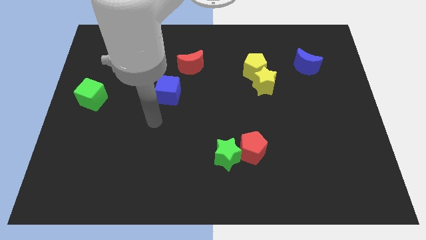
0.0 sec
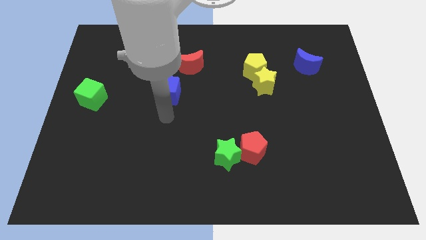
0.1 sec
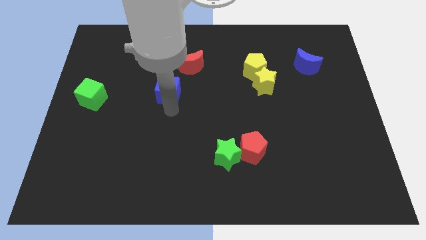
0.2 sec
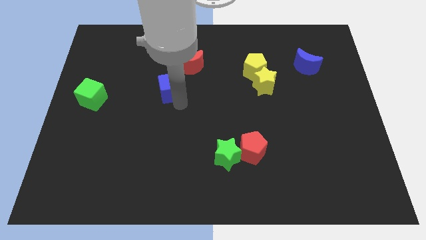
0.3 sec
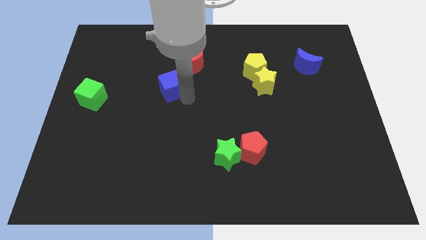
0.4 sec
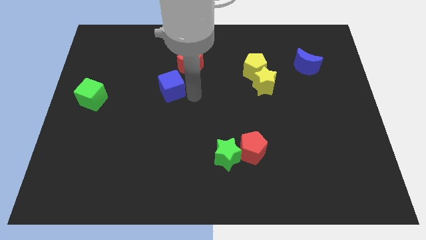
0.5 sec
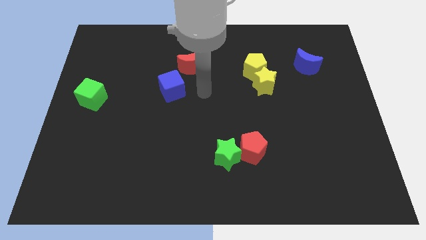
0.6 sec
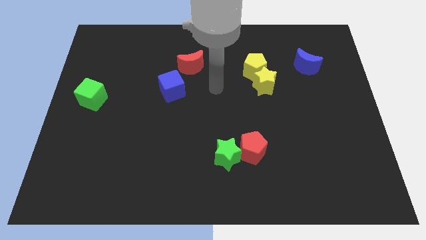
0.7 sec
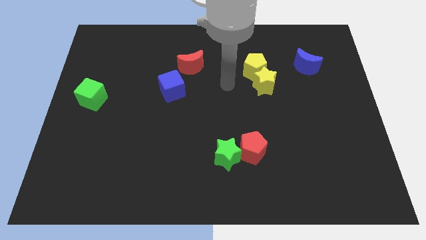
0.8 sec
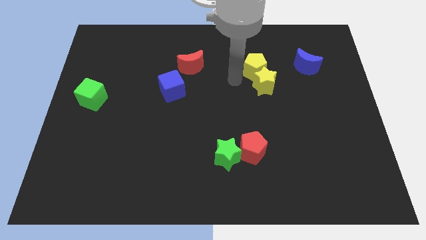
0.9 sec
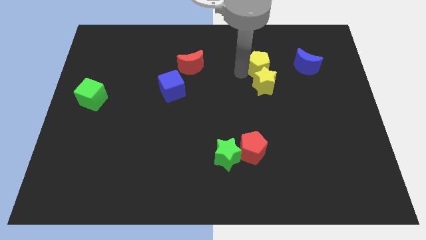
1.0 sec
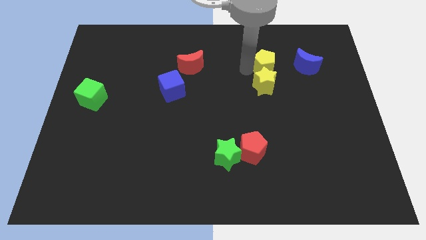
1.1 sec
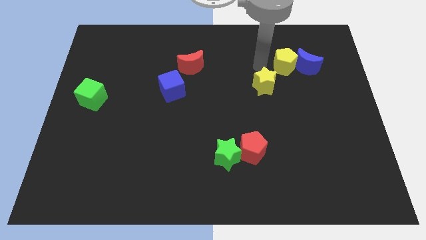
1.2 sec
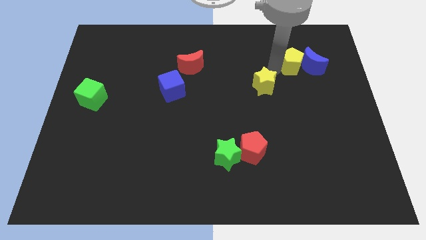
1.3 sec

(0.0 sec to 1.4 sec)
pull the yellow star apart from the yellow pentagon

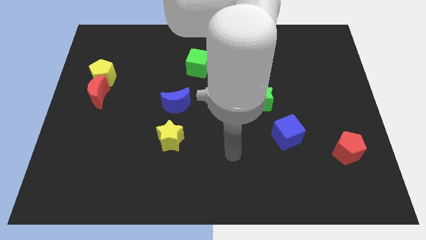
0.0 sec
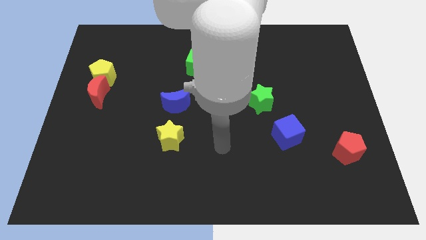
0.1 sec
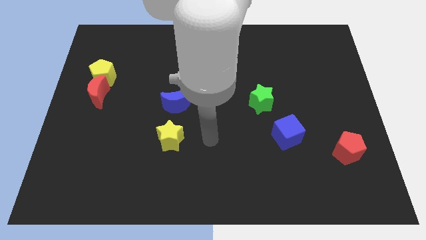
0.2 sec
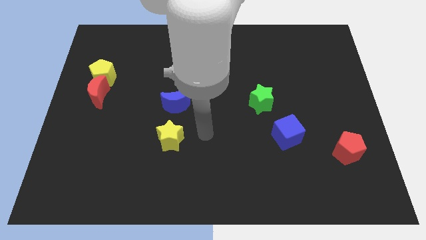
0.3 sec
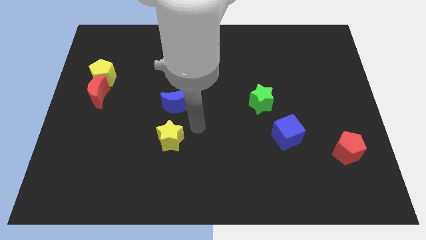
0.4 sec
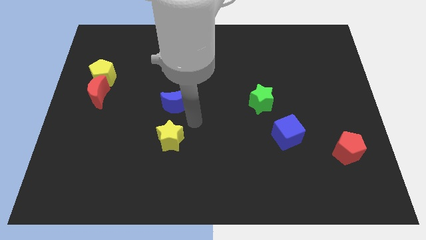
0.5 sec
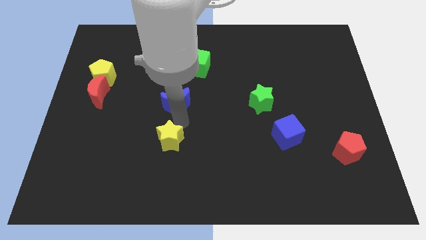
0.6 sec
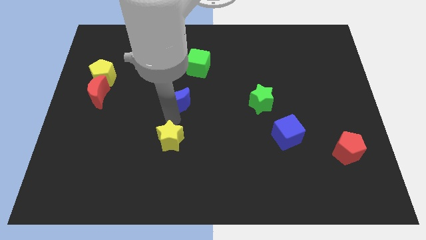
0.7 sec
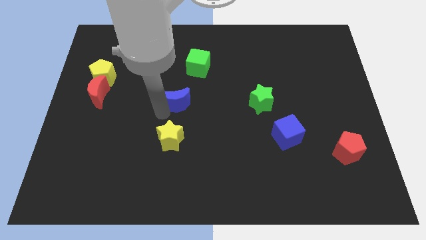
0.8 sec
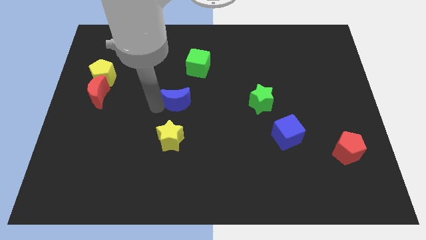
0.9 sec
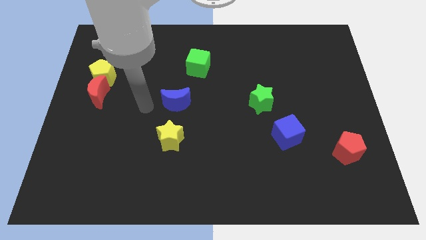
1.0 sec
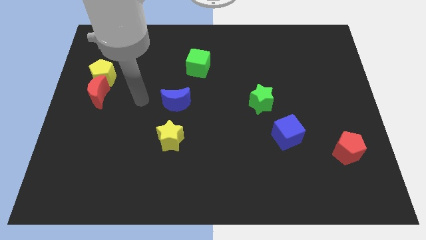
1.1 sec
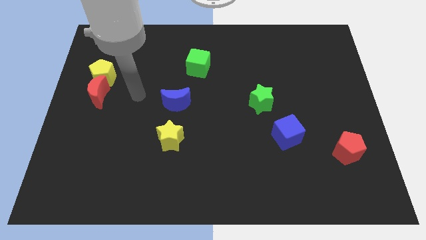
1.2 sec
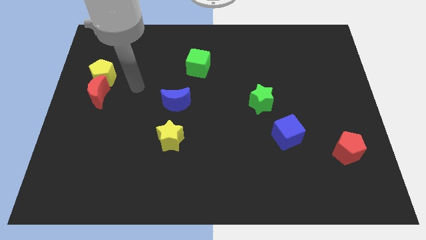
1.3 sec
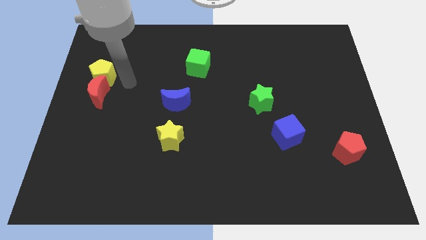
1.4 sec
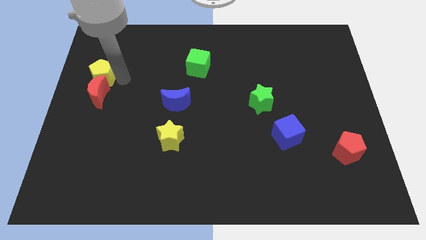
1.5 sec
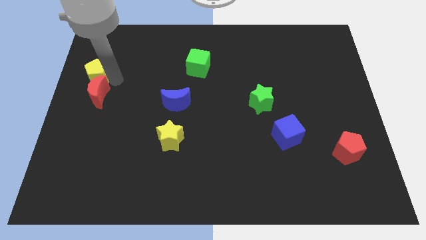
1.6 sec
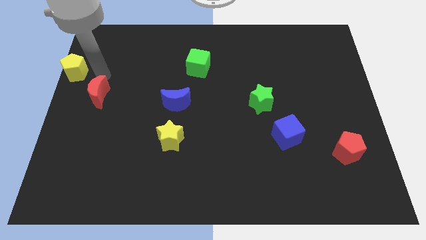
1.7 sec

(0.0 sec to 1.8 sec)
move the red moon away from the yellow pentagon

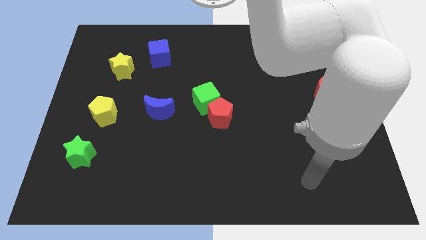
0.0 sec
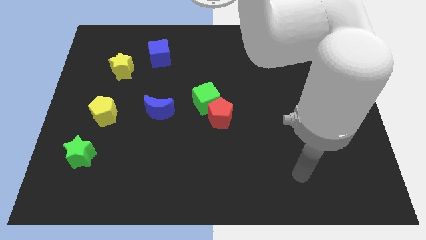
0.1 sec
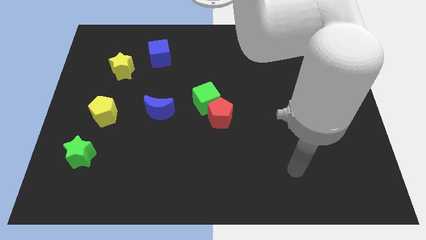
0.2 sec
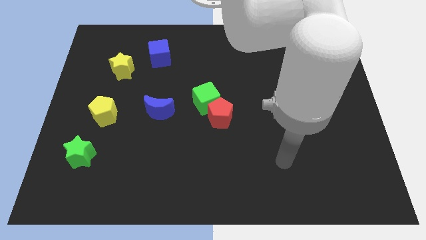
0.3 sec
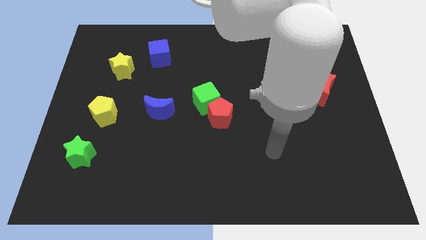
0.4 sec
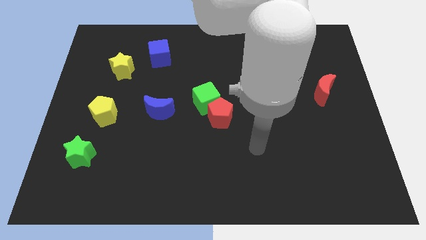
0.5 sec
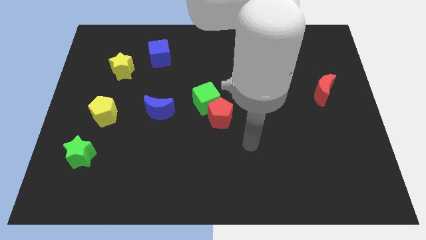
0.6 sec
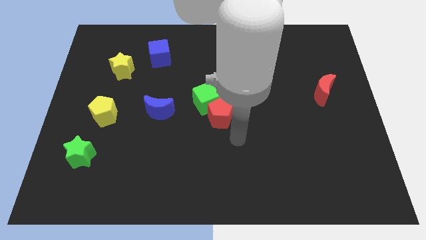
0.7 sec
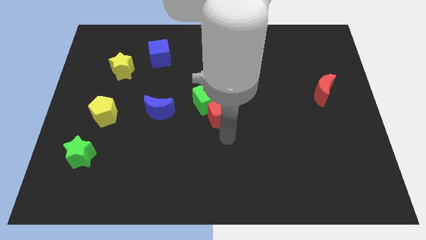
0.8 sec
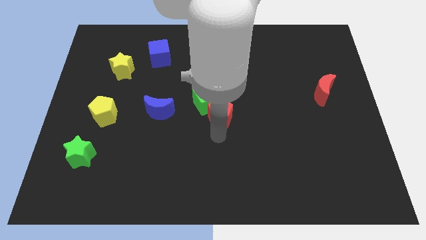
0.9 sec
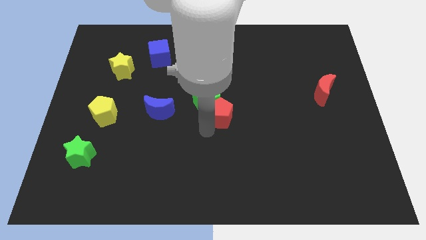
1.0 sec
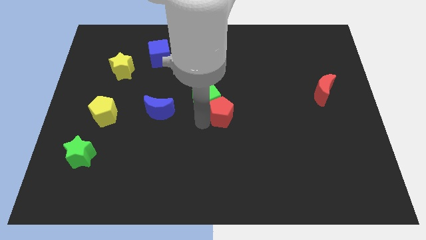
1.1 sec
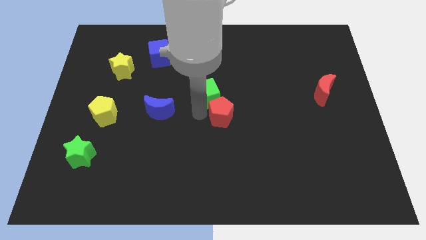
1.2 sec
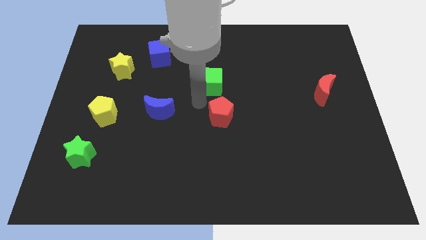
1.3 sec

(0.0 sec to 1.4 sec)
separate the red pentagon from the green cube

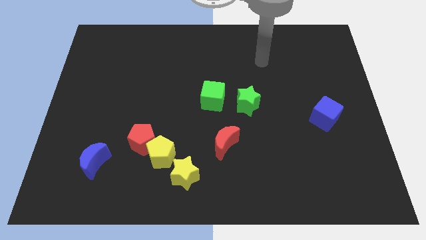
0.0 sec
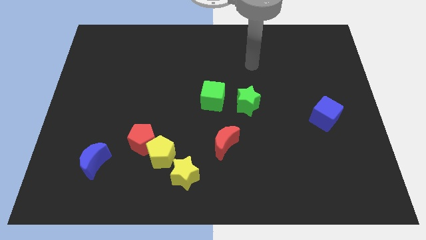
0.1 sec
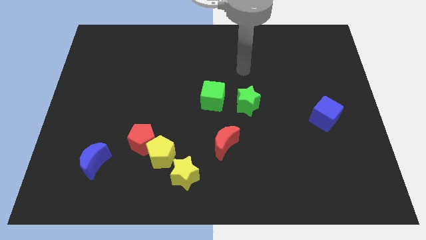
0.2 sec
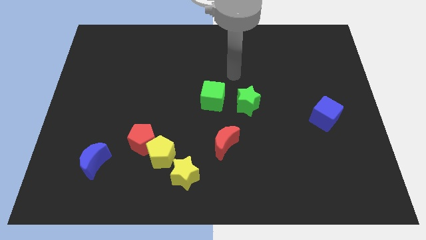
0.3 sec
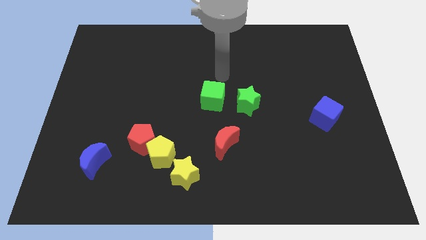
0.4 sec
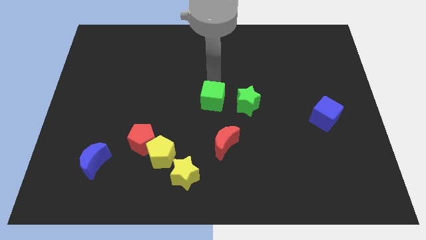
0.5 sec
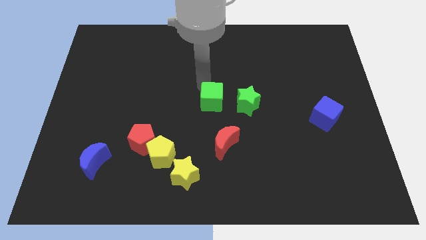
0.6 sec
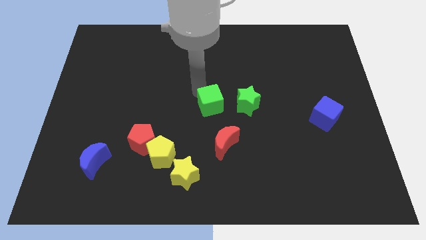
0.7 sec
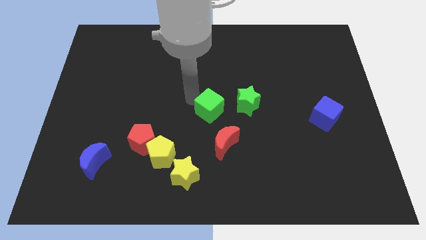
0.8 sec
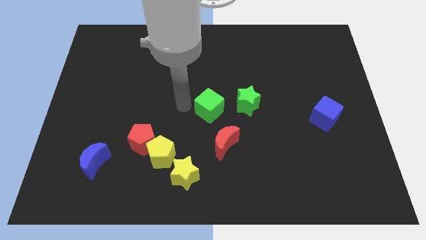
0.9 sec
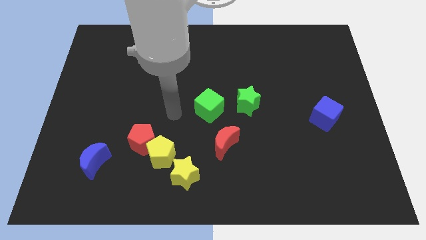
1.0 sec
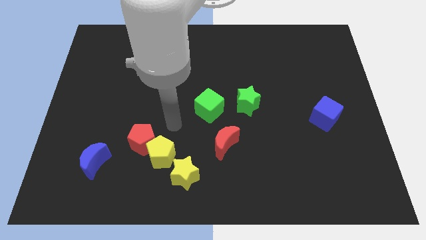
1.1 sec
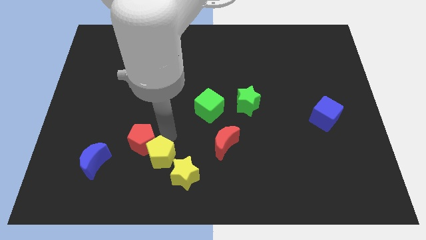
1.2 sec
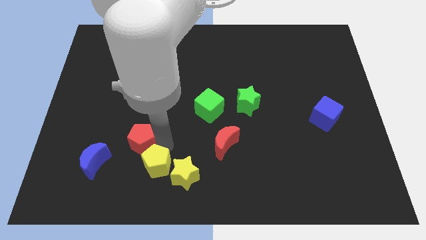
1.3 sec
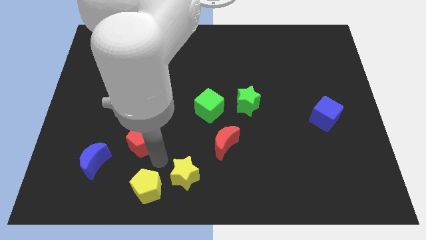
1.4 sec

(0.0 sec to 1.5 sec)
pull the red pentagon apart from the yellow pentagon

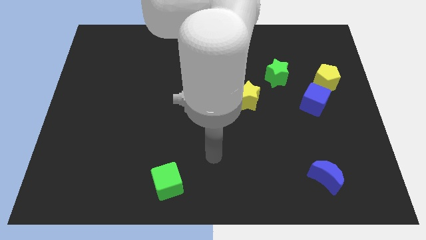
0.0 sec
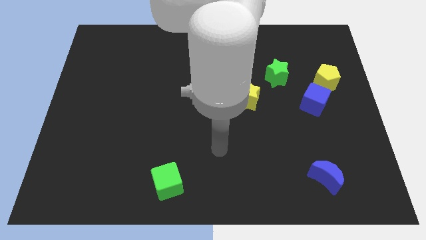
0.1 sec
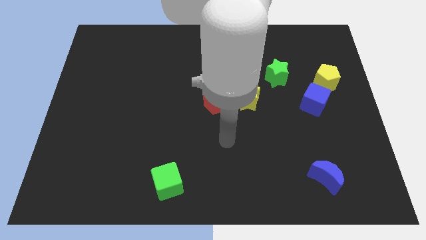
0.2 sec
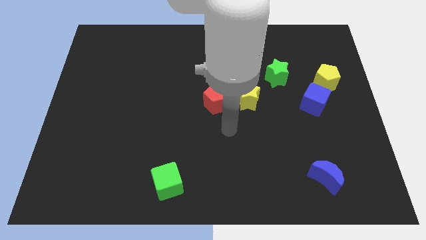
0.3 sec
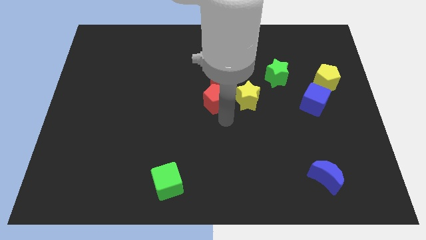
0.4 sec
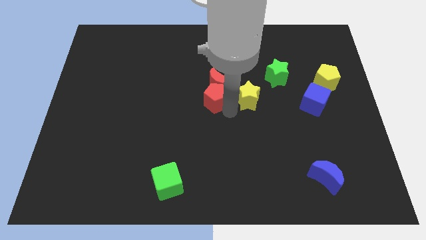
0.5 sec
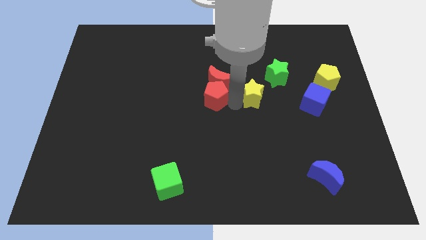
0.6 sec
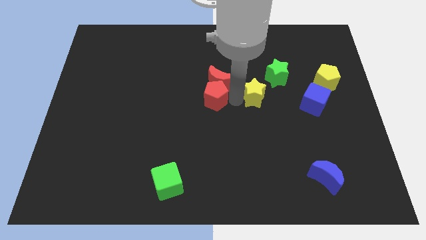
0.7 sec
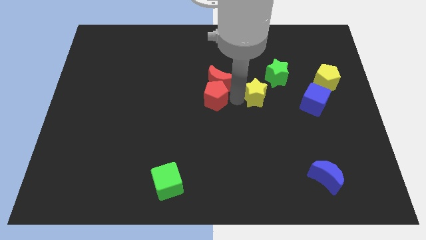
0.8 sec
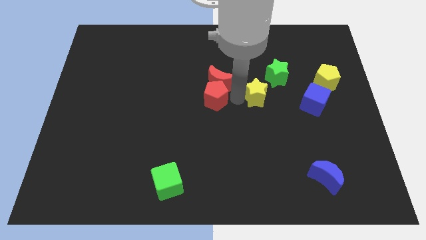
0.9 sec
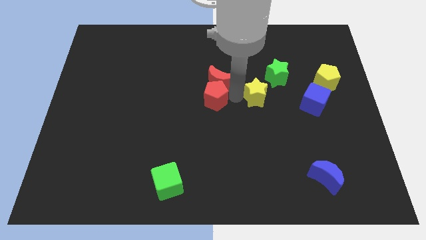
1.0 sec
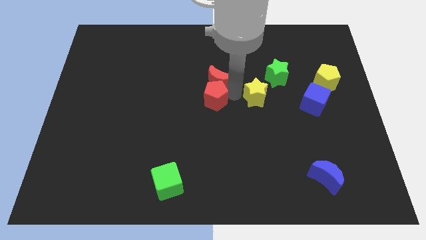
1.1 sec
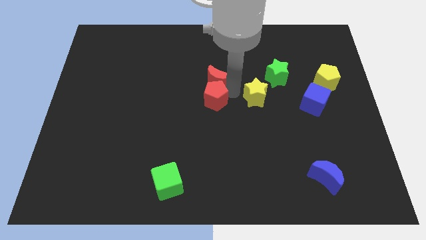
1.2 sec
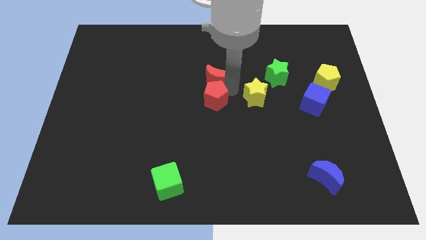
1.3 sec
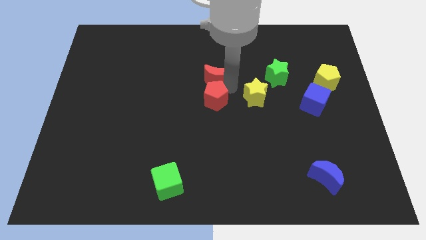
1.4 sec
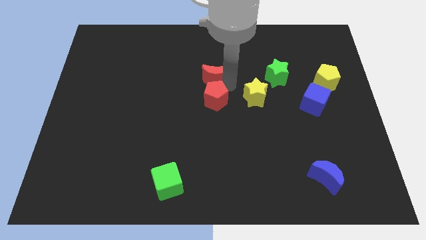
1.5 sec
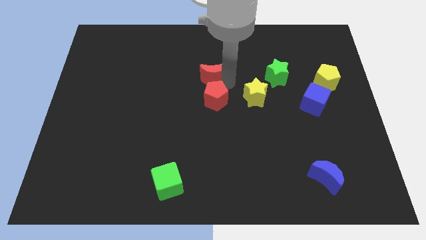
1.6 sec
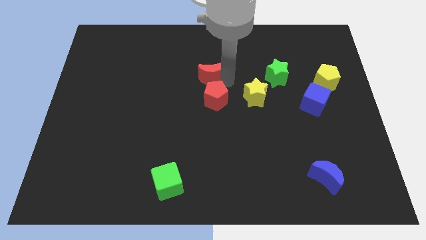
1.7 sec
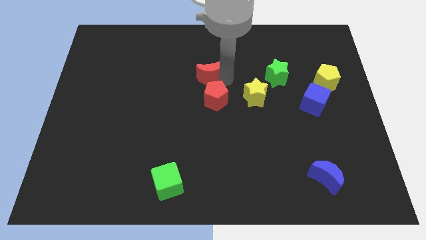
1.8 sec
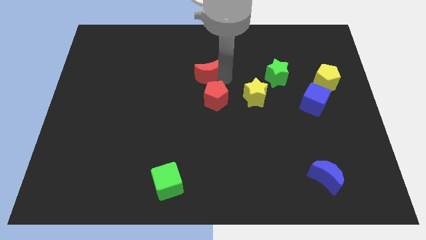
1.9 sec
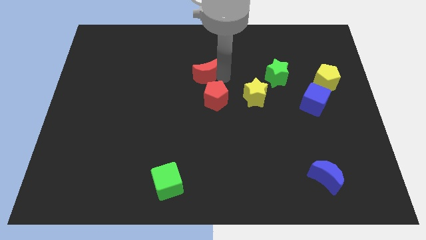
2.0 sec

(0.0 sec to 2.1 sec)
pull the red moon apart from the red pentagon and yellow star

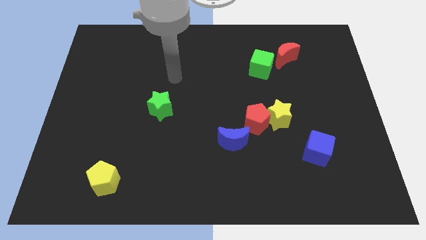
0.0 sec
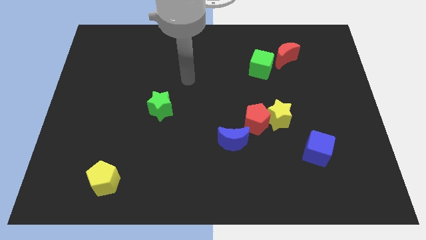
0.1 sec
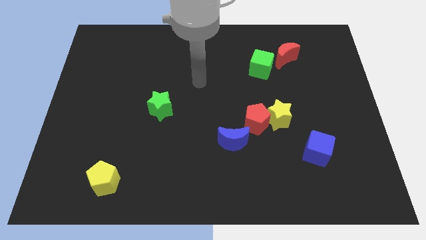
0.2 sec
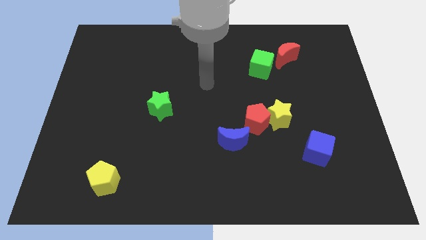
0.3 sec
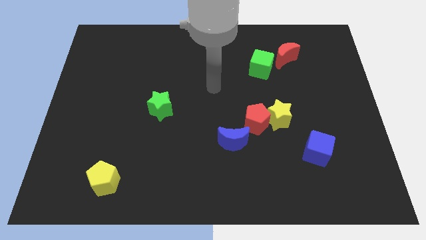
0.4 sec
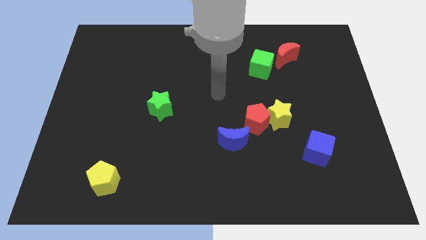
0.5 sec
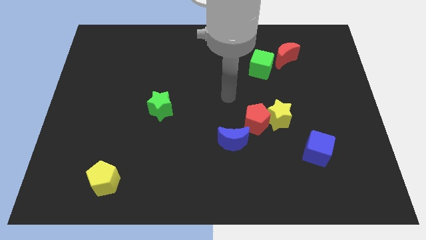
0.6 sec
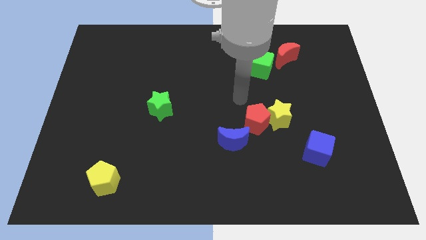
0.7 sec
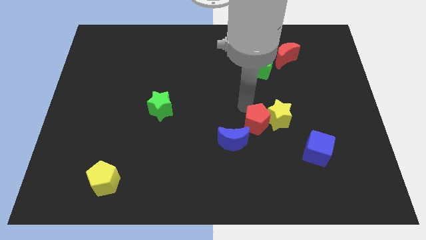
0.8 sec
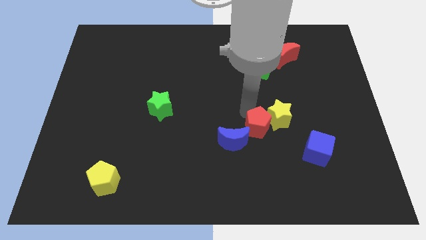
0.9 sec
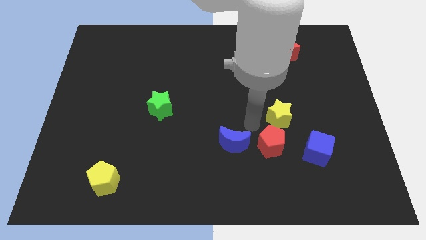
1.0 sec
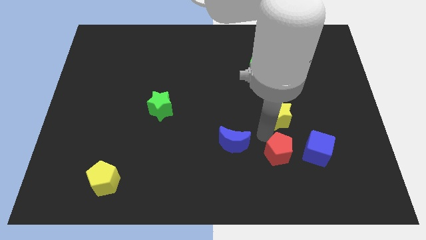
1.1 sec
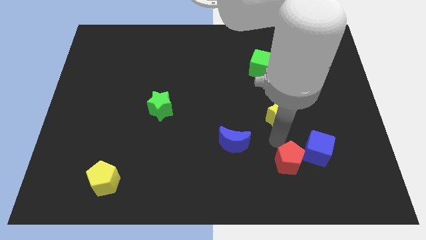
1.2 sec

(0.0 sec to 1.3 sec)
move the yellow star away from the red pentagon
